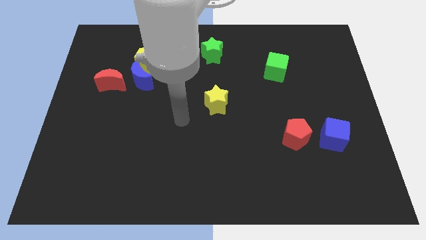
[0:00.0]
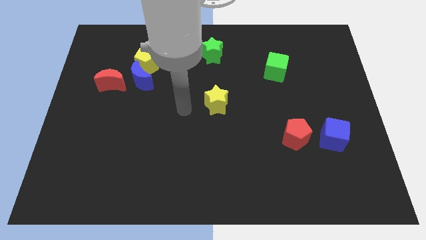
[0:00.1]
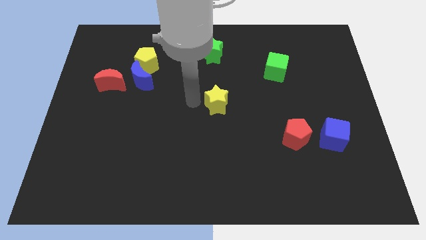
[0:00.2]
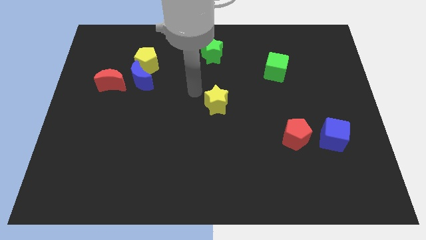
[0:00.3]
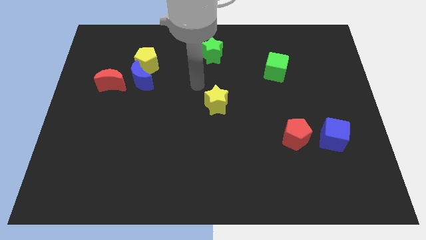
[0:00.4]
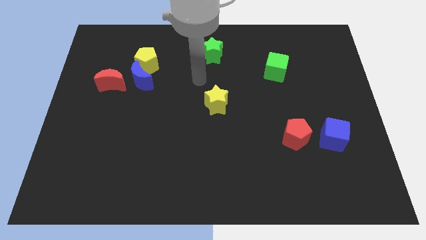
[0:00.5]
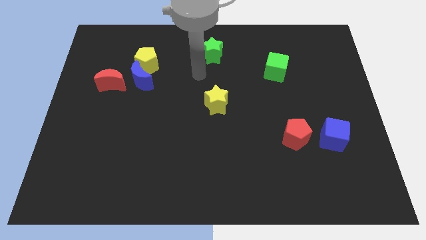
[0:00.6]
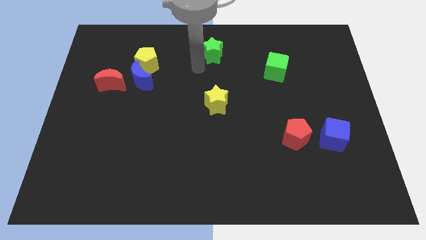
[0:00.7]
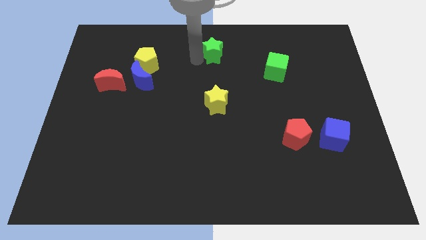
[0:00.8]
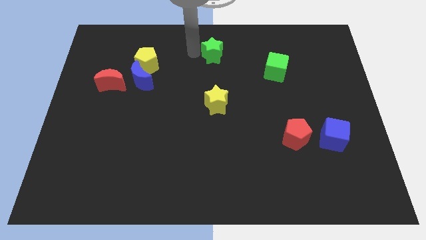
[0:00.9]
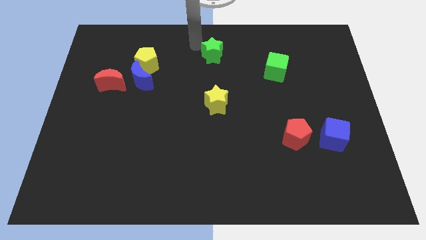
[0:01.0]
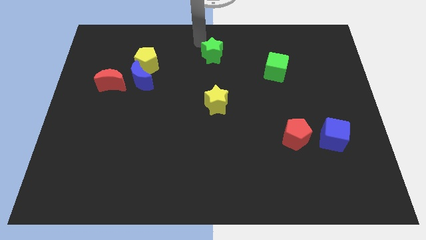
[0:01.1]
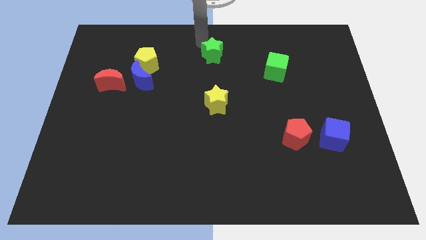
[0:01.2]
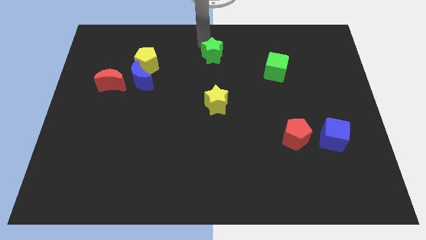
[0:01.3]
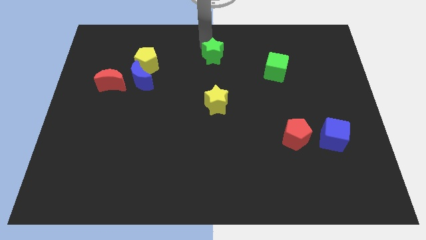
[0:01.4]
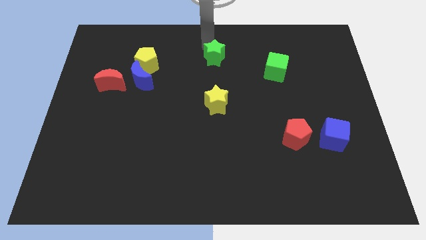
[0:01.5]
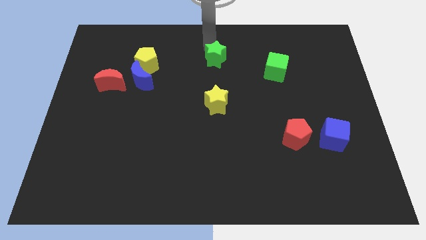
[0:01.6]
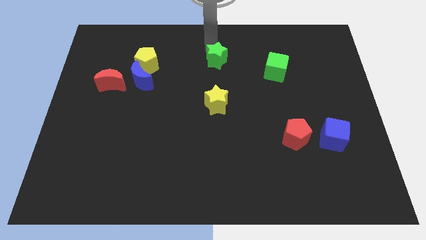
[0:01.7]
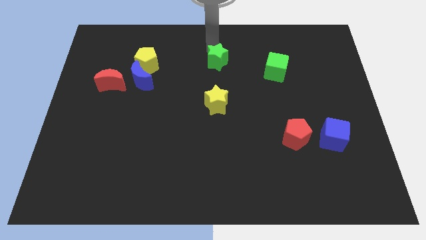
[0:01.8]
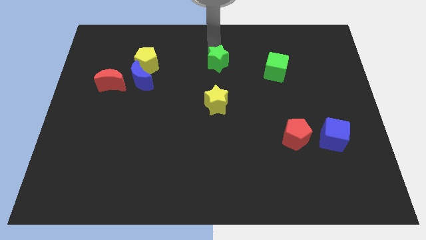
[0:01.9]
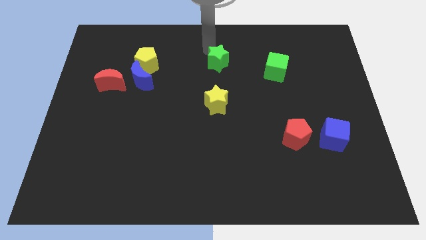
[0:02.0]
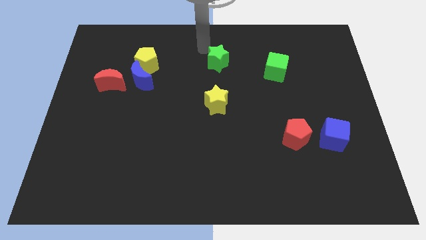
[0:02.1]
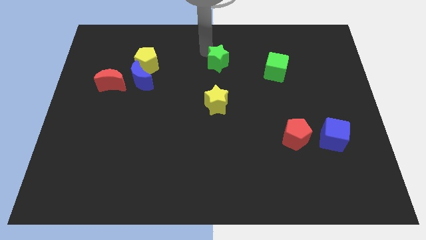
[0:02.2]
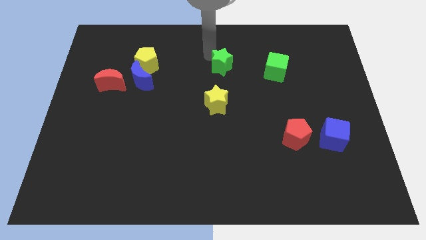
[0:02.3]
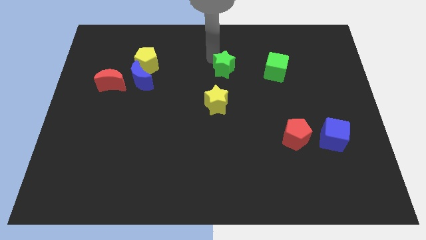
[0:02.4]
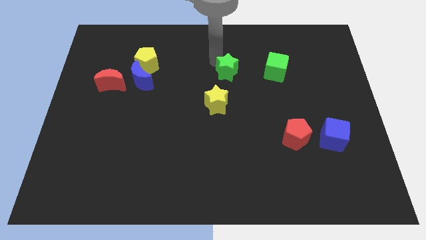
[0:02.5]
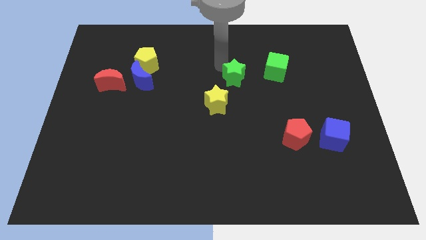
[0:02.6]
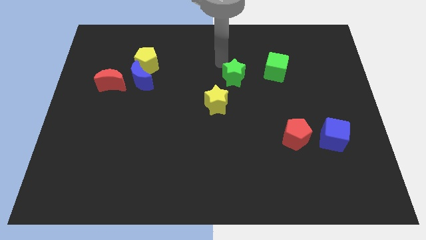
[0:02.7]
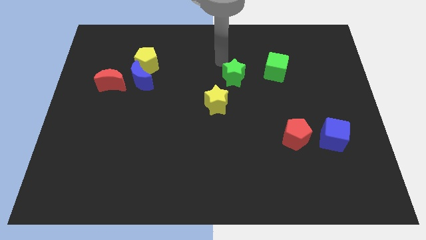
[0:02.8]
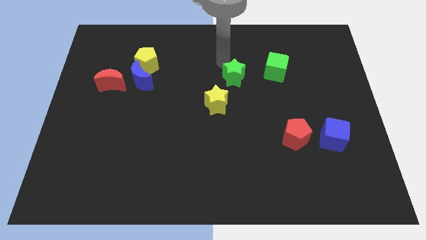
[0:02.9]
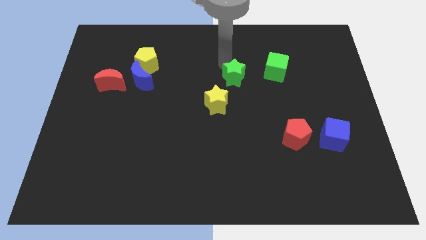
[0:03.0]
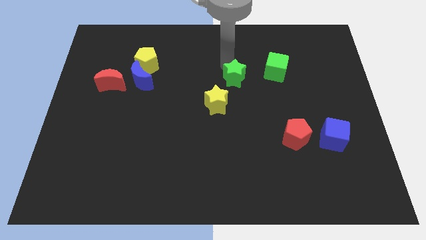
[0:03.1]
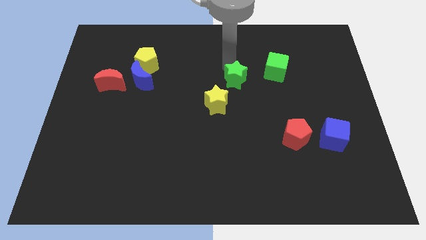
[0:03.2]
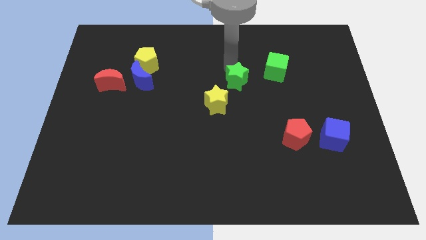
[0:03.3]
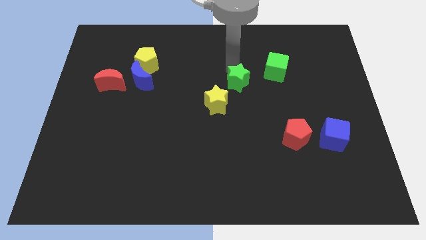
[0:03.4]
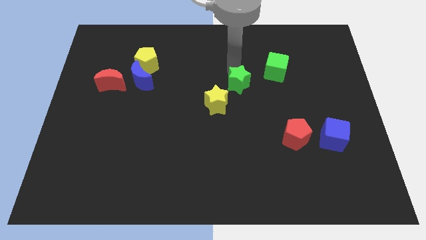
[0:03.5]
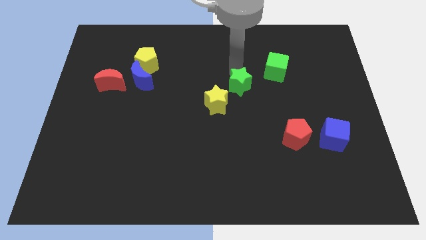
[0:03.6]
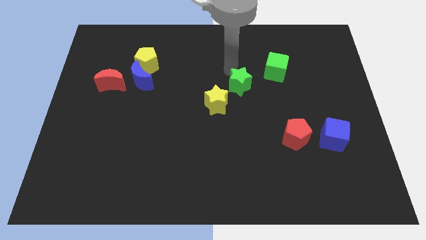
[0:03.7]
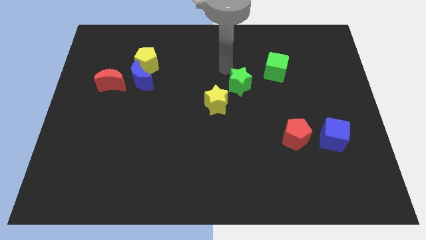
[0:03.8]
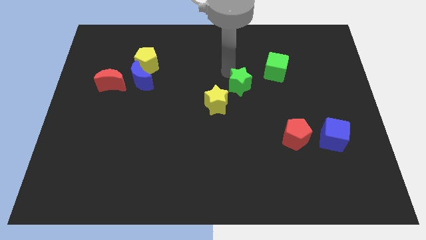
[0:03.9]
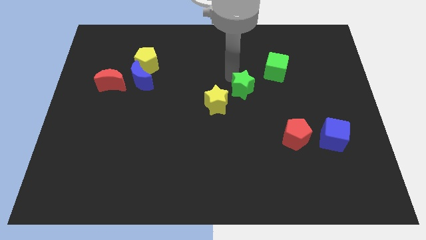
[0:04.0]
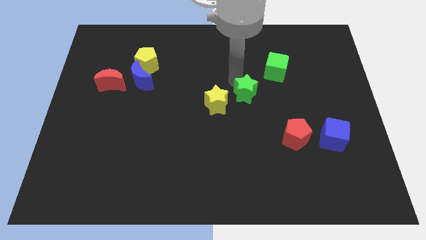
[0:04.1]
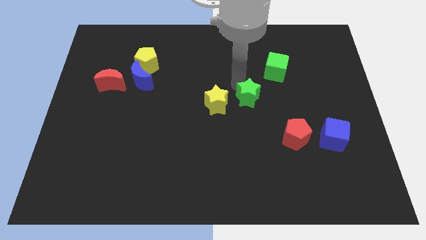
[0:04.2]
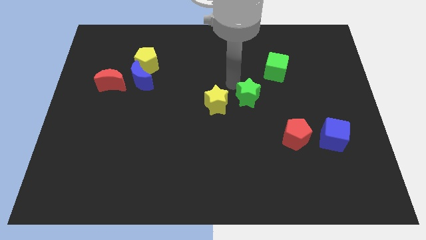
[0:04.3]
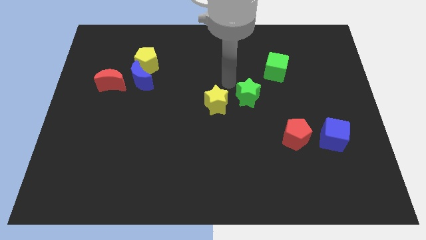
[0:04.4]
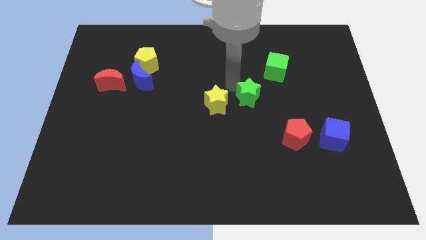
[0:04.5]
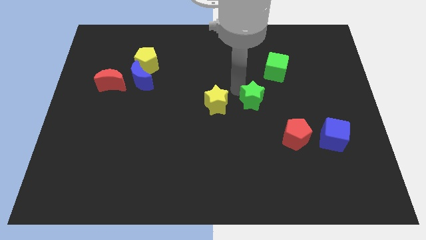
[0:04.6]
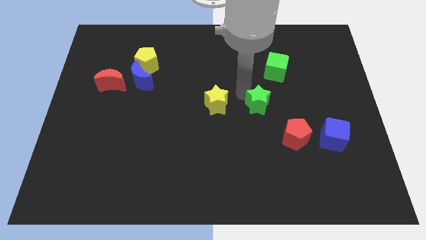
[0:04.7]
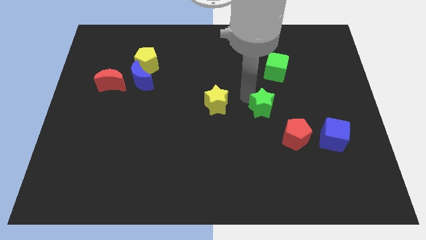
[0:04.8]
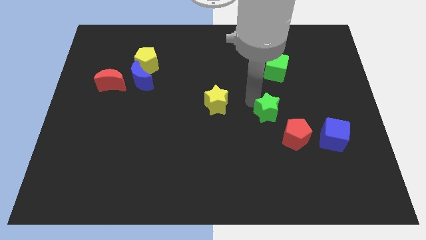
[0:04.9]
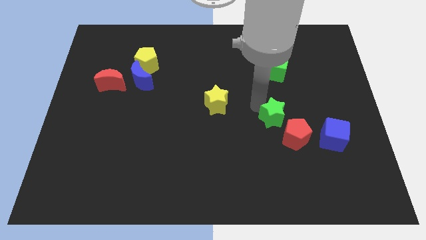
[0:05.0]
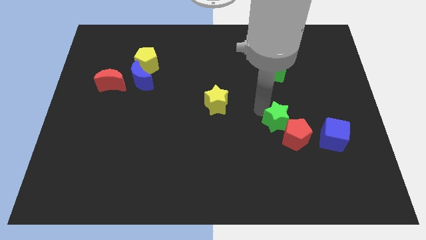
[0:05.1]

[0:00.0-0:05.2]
put the green star next to the red pentagon

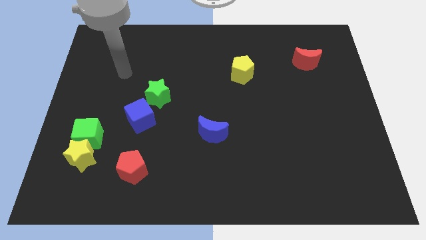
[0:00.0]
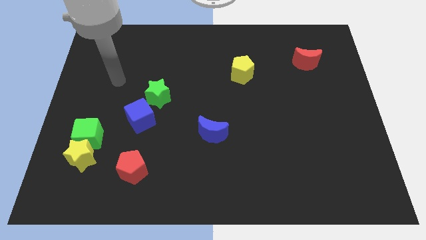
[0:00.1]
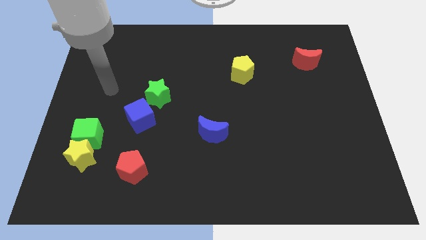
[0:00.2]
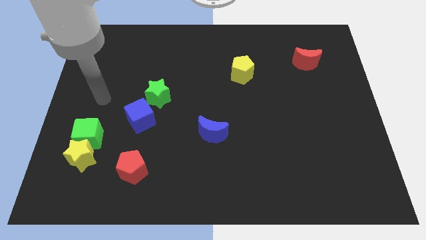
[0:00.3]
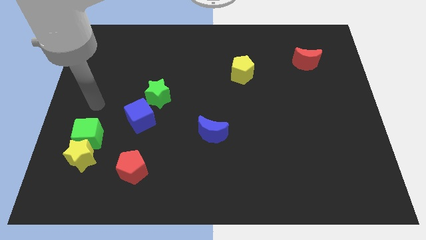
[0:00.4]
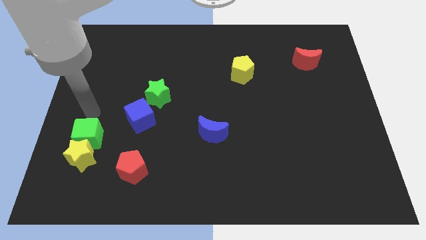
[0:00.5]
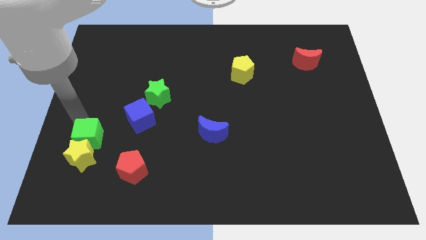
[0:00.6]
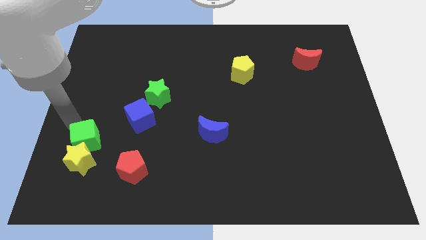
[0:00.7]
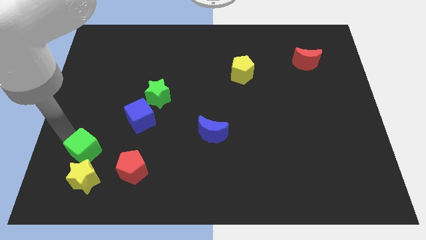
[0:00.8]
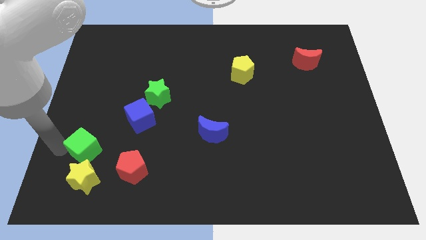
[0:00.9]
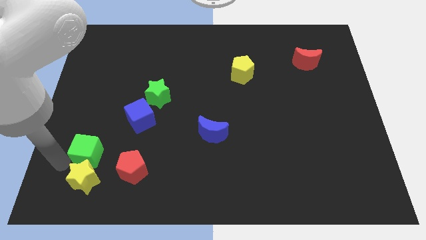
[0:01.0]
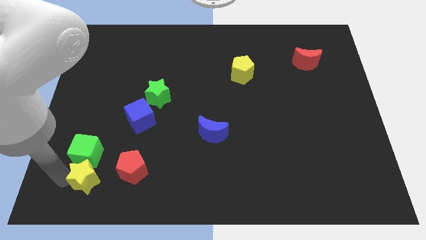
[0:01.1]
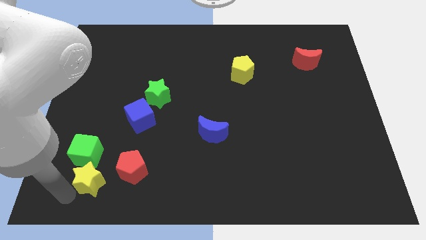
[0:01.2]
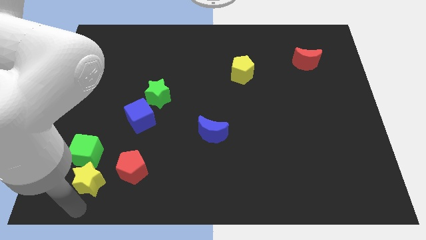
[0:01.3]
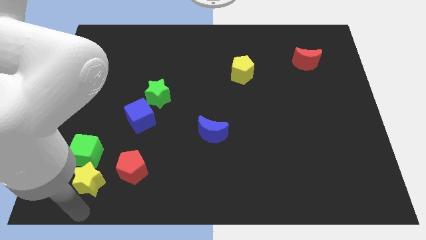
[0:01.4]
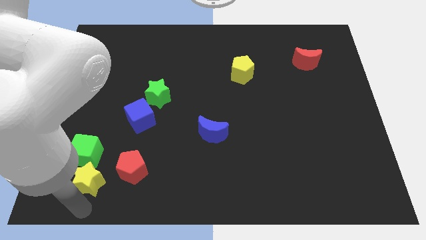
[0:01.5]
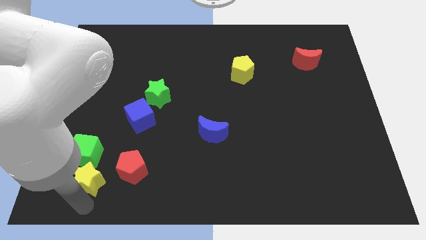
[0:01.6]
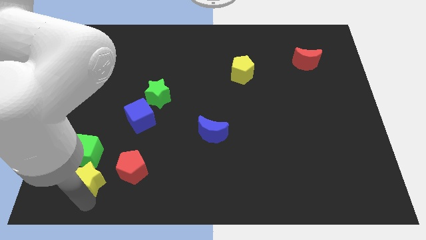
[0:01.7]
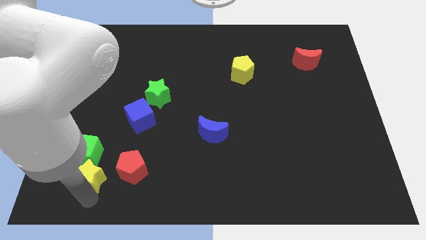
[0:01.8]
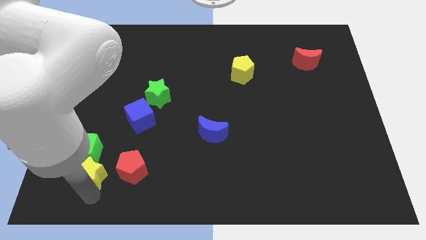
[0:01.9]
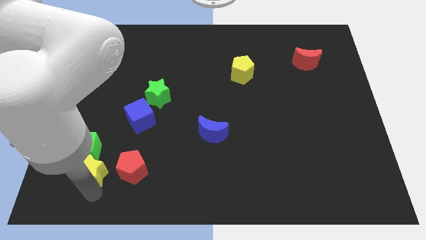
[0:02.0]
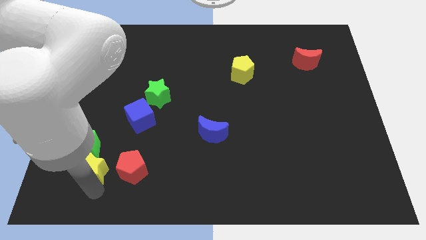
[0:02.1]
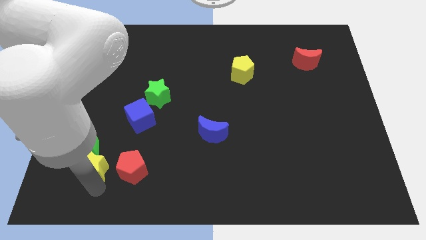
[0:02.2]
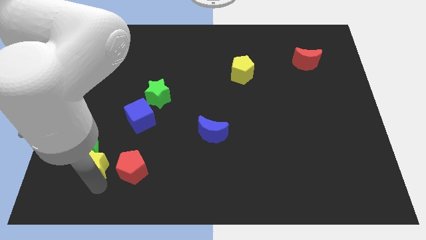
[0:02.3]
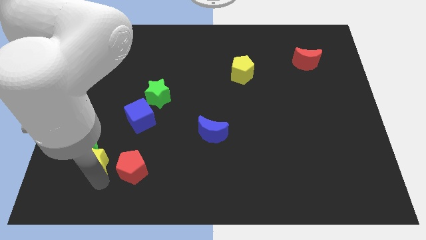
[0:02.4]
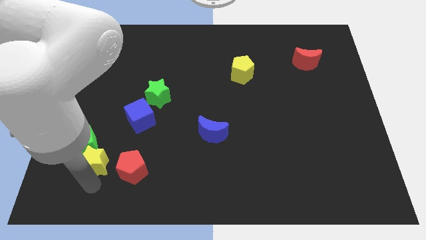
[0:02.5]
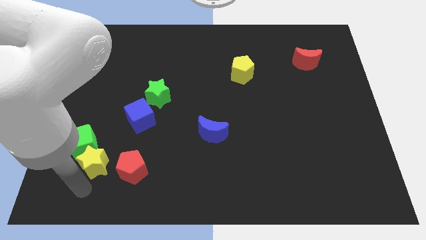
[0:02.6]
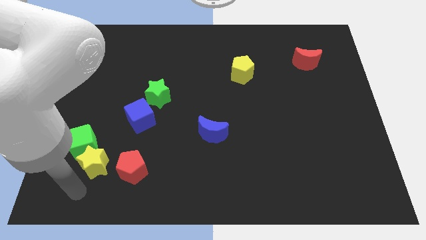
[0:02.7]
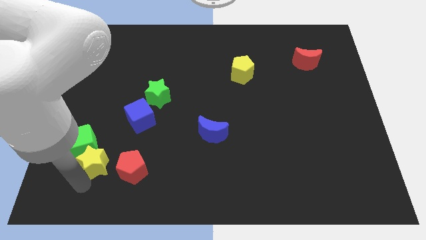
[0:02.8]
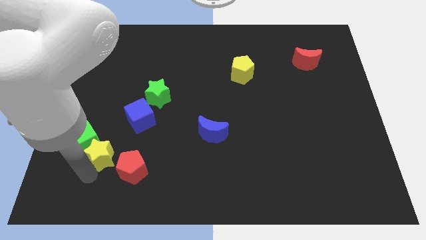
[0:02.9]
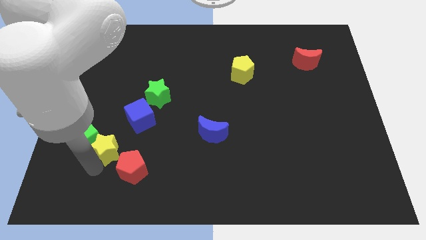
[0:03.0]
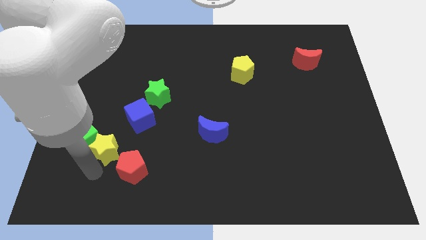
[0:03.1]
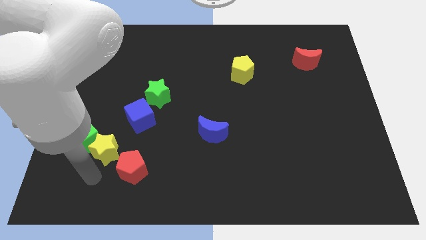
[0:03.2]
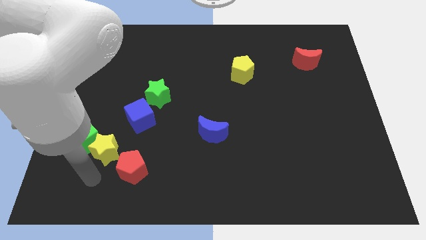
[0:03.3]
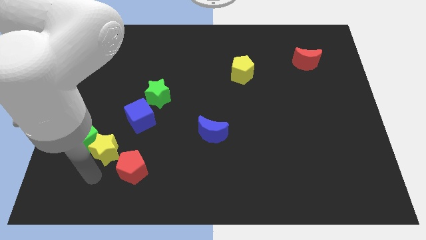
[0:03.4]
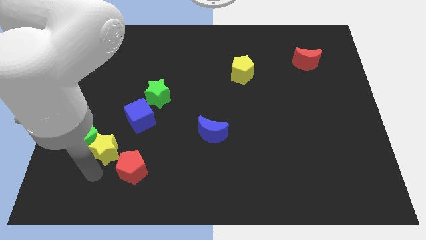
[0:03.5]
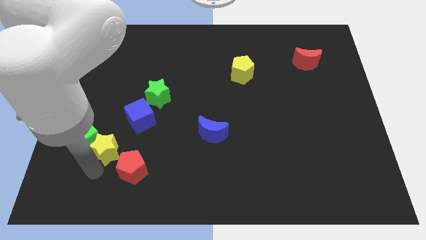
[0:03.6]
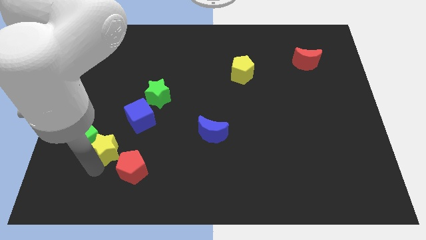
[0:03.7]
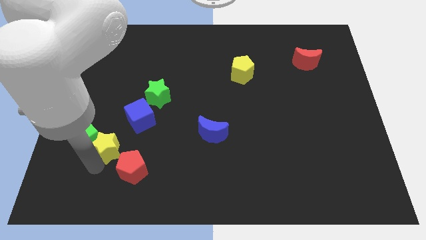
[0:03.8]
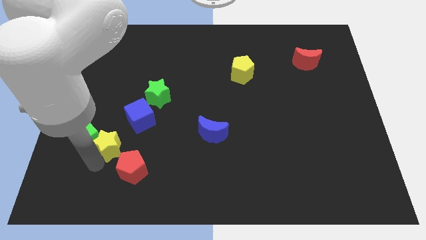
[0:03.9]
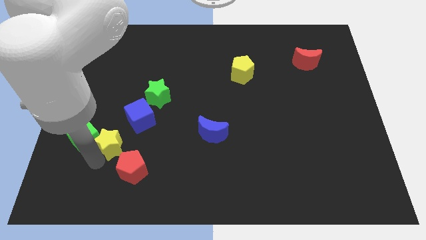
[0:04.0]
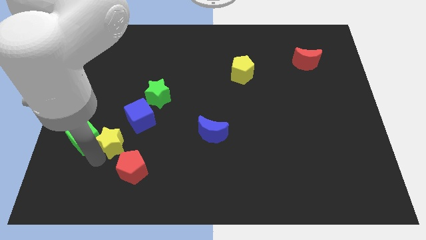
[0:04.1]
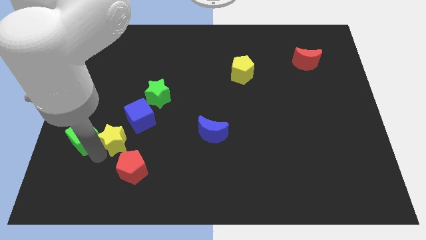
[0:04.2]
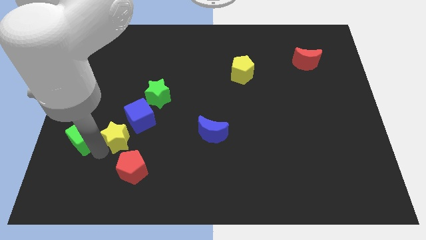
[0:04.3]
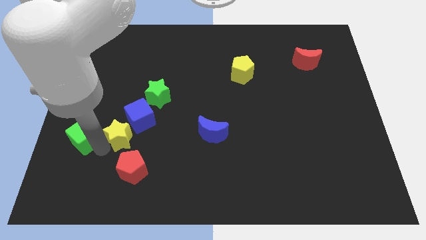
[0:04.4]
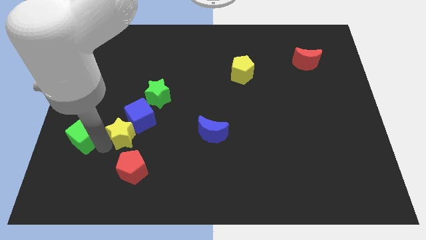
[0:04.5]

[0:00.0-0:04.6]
slide the yellow star close to the blue cube
